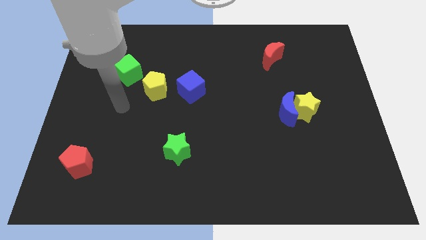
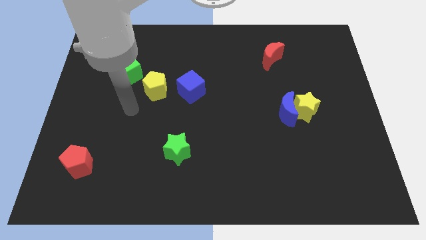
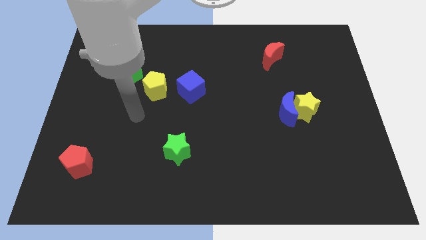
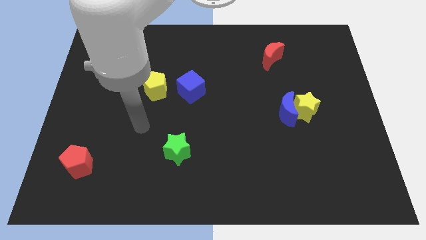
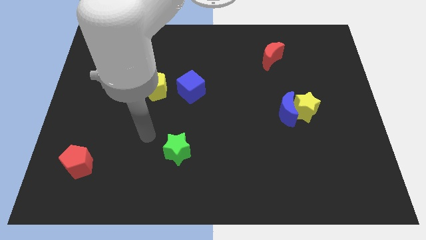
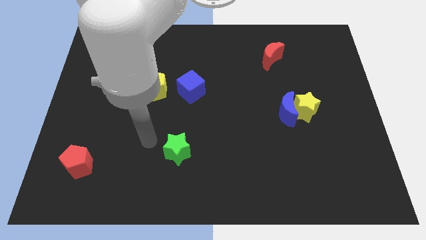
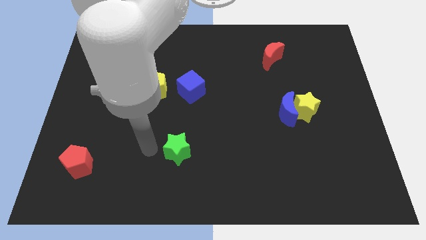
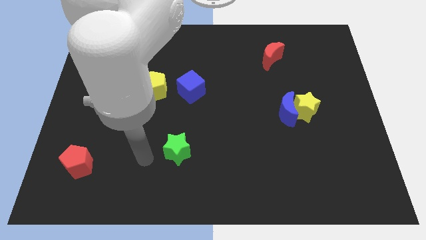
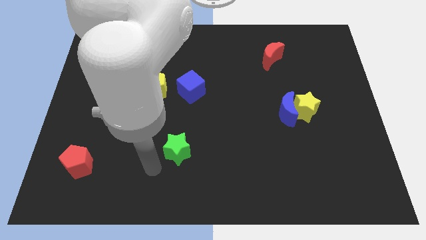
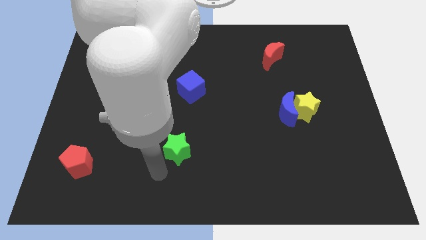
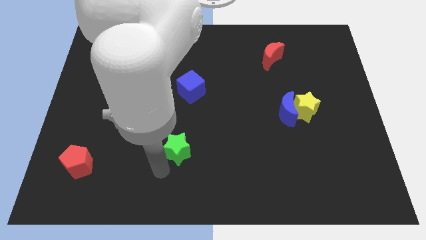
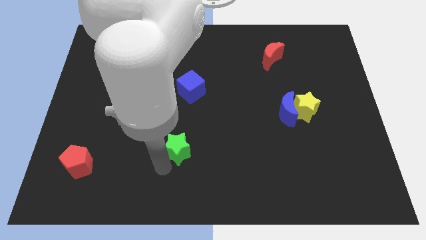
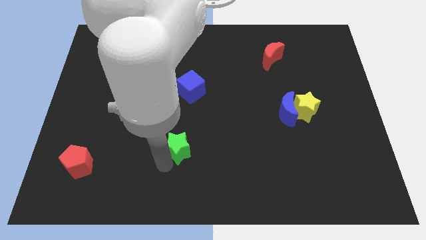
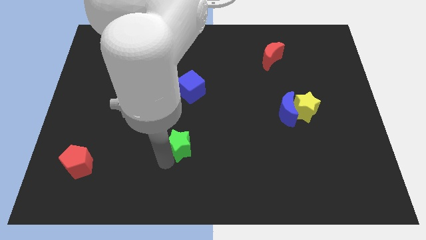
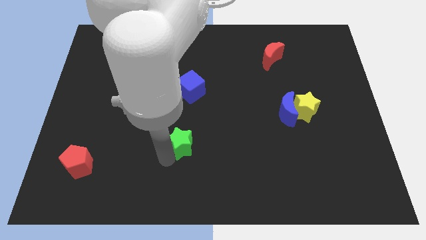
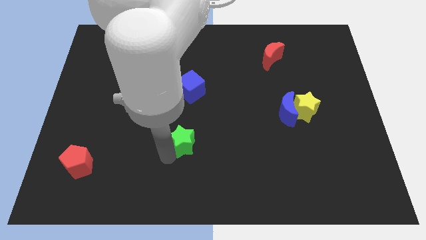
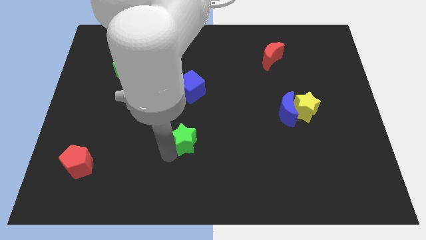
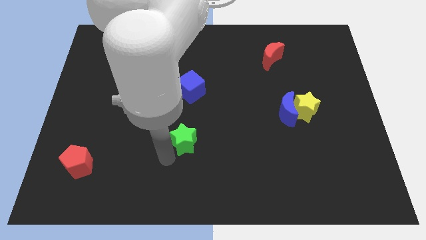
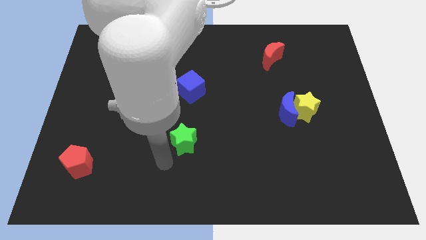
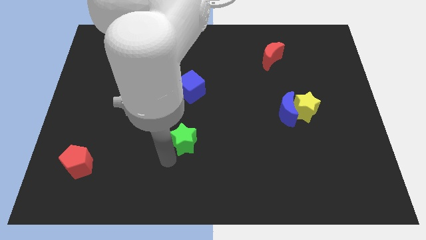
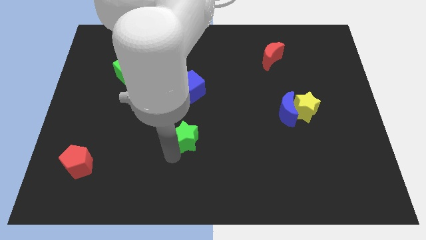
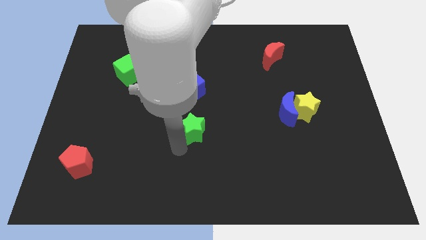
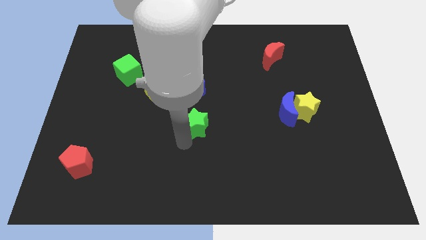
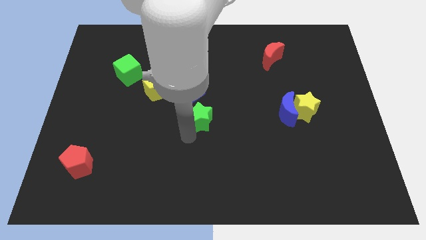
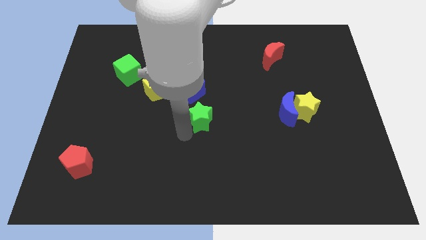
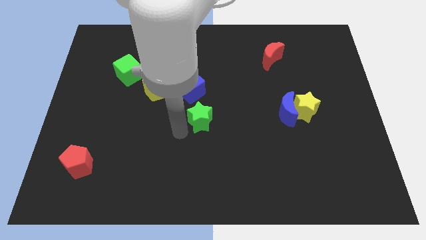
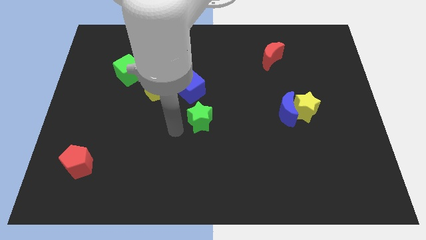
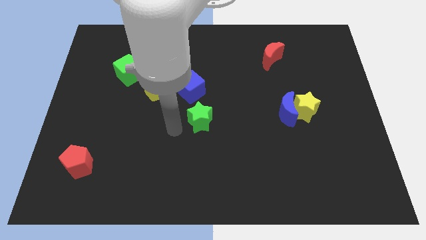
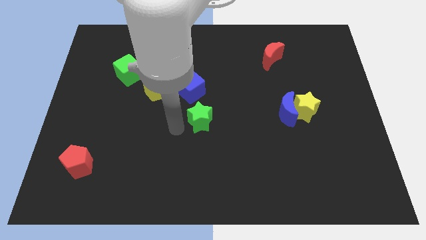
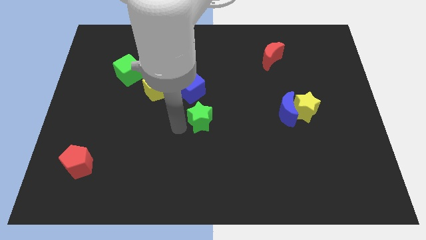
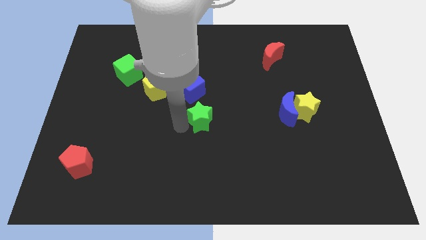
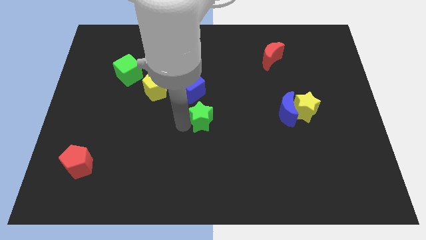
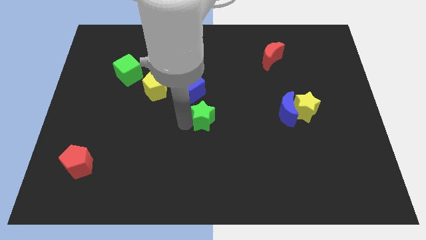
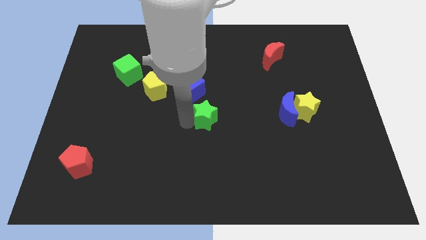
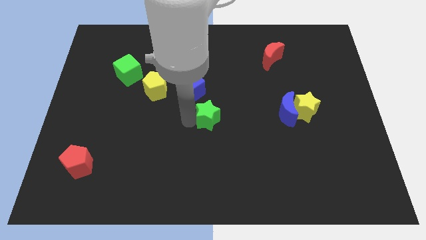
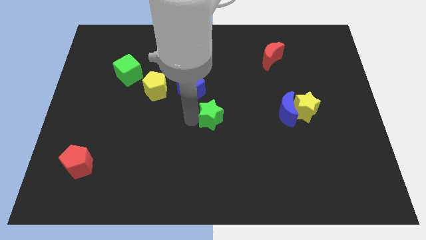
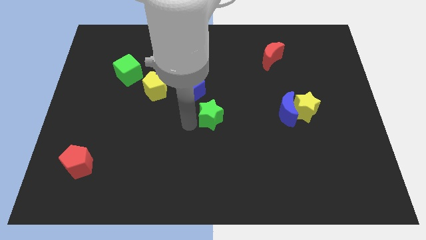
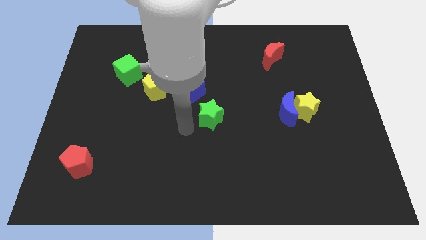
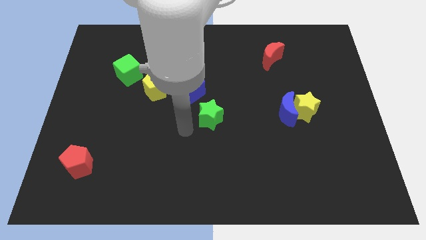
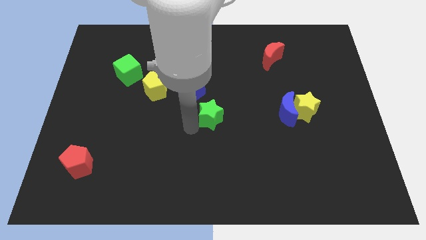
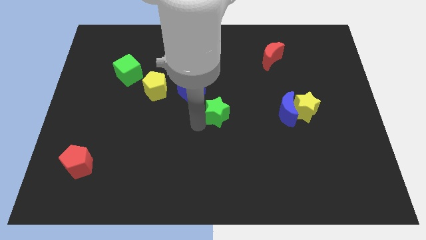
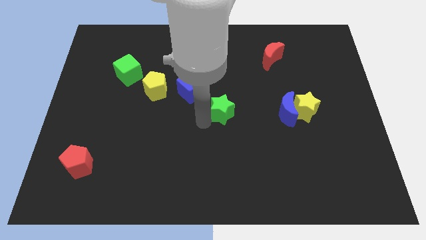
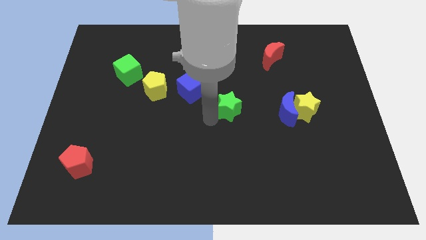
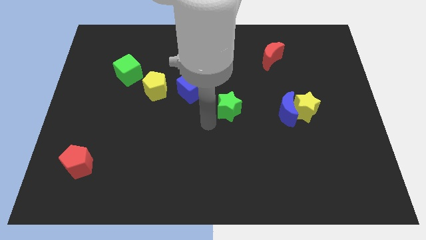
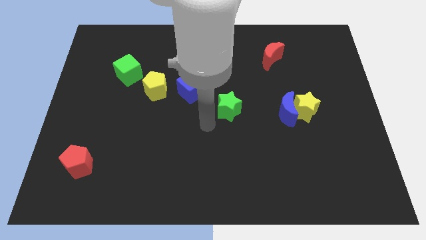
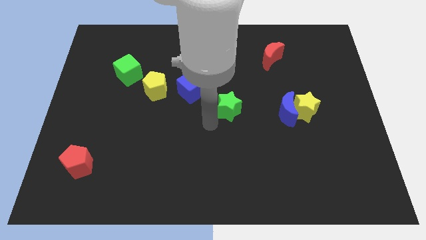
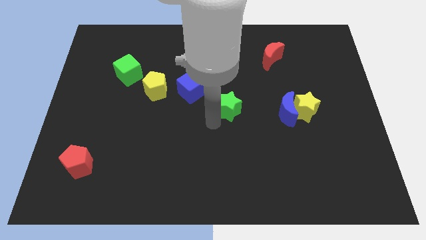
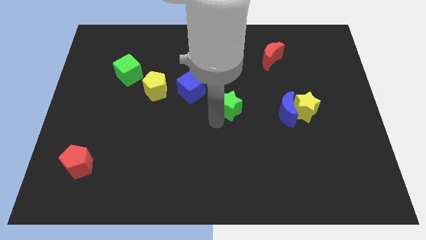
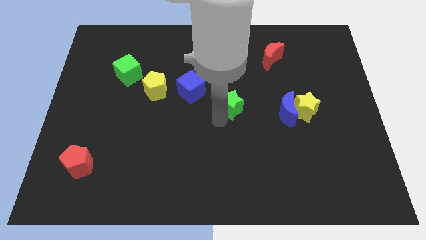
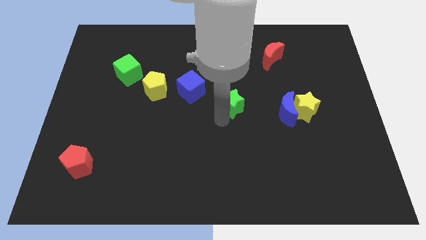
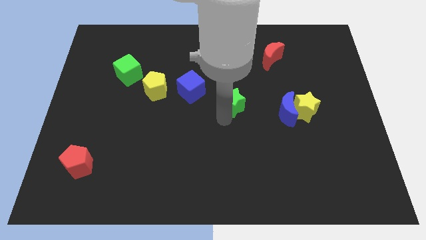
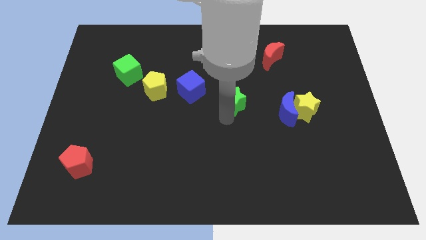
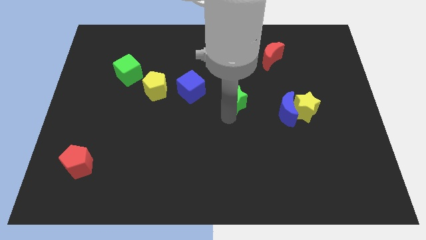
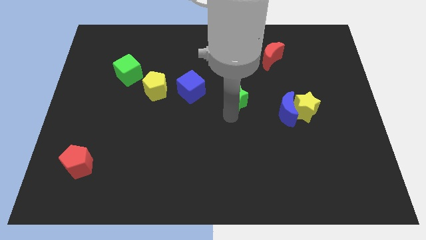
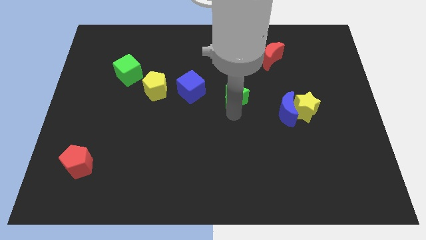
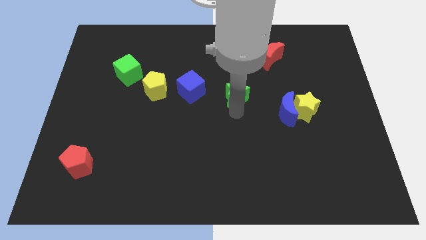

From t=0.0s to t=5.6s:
move the green star upwards and then right

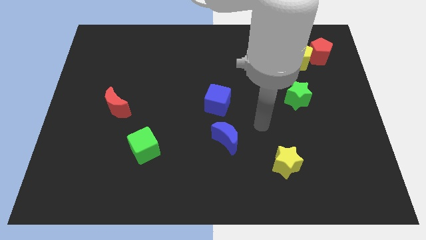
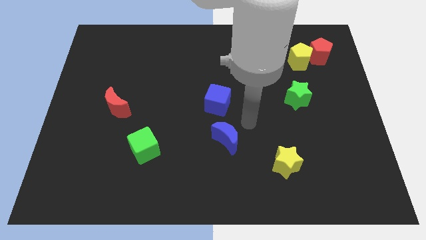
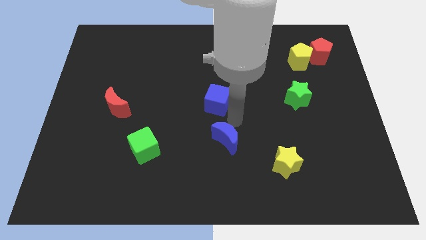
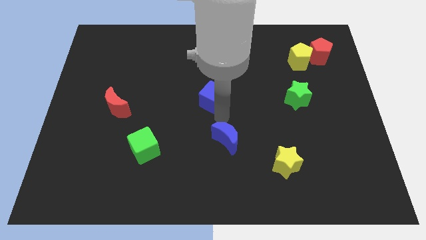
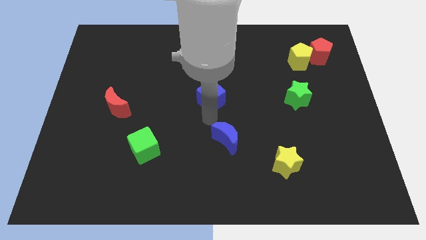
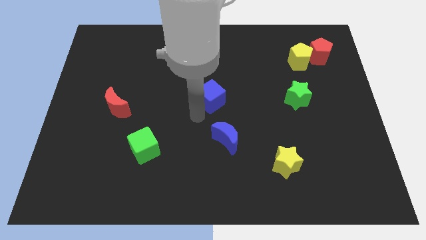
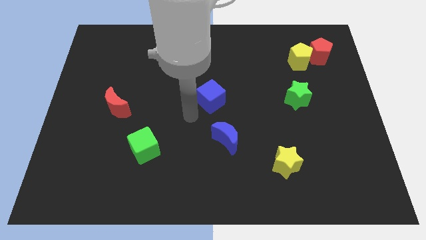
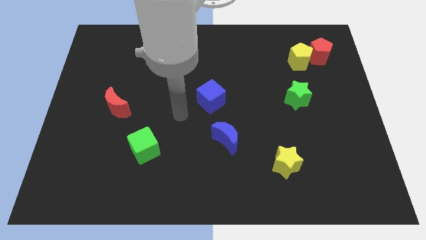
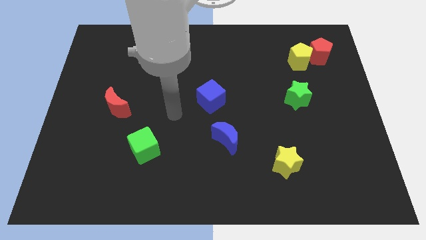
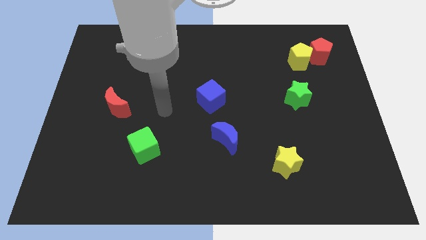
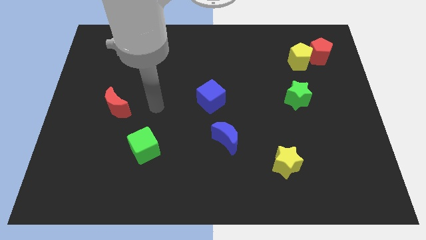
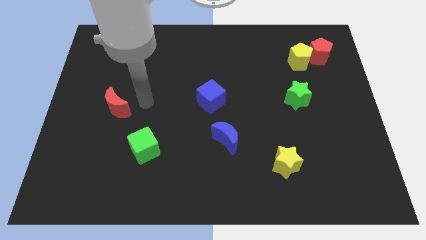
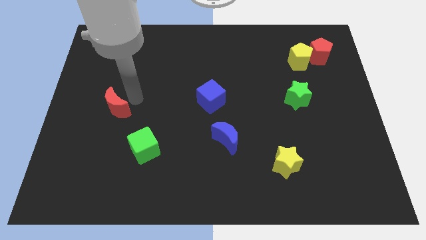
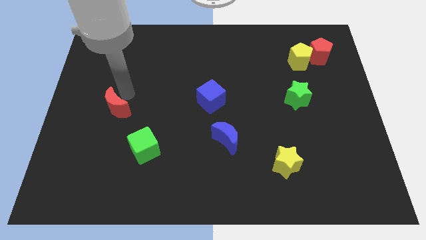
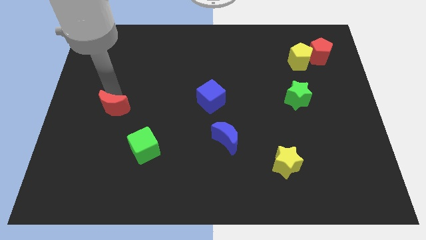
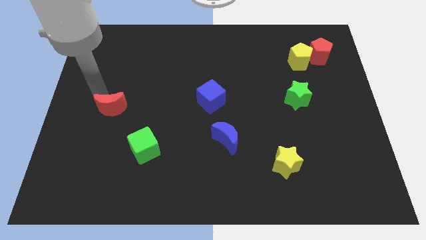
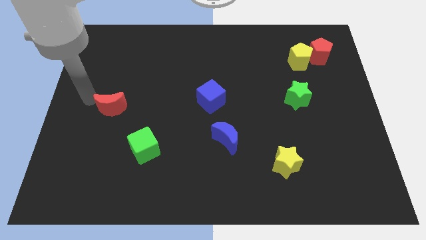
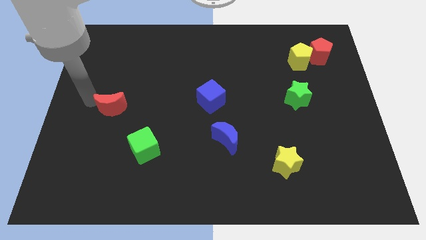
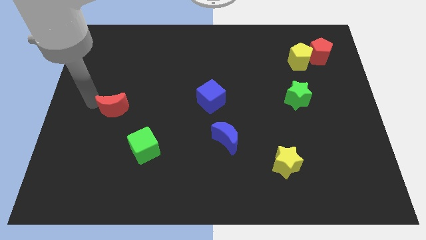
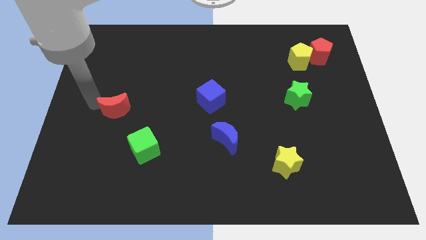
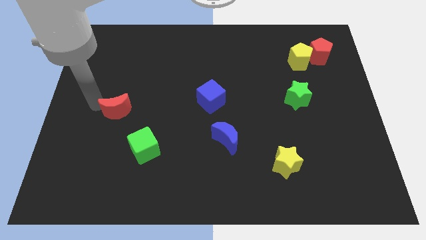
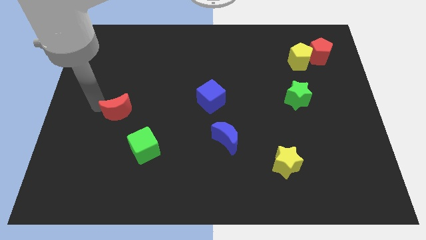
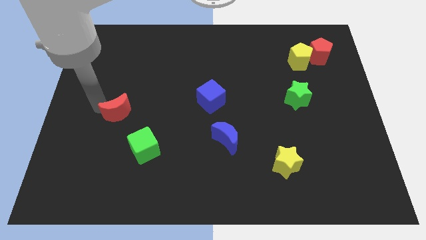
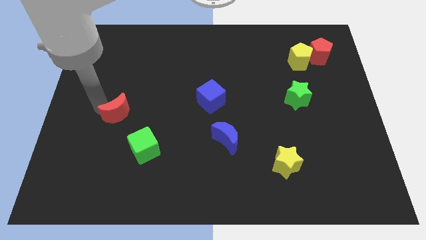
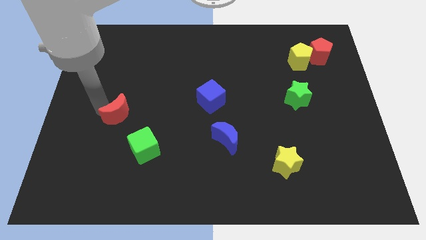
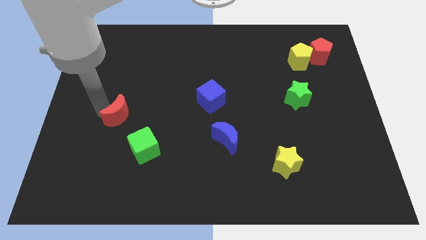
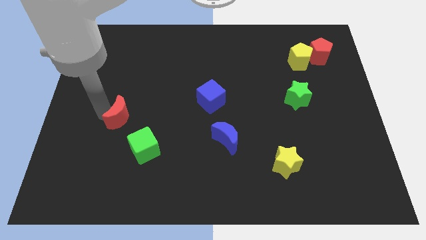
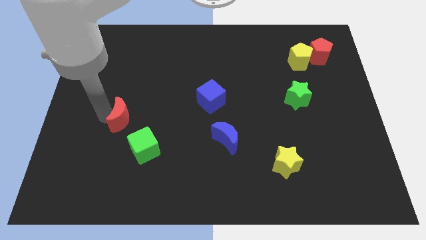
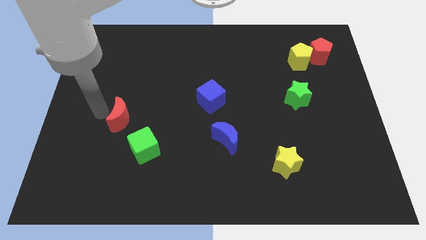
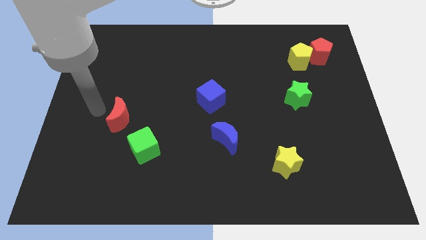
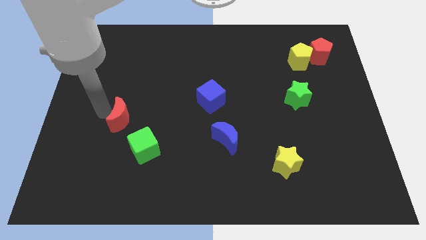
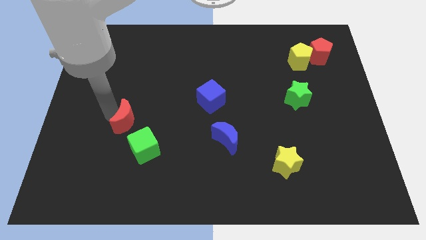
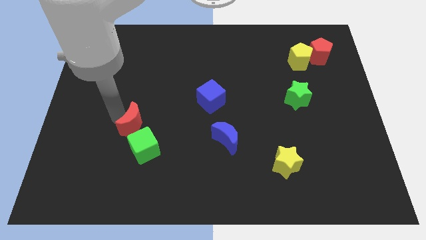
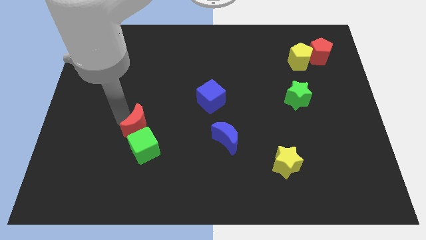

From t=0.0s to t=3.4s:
slightly push the red moon downwards and right diagonally
